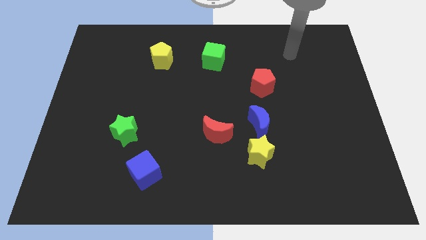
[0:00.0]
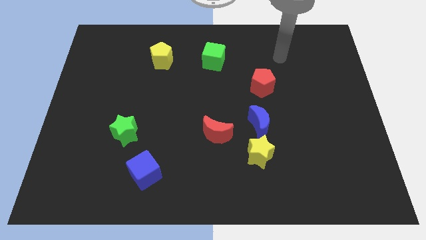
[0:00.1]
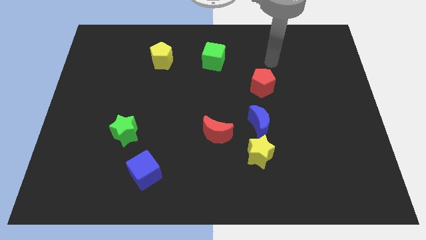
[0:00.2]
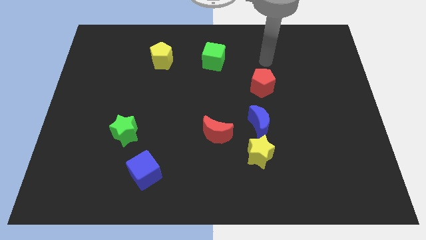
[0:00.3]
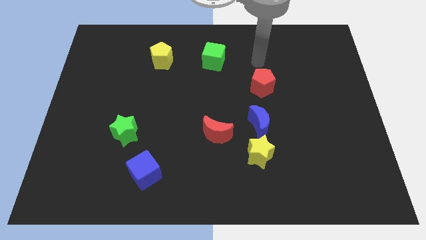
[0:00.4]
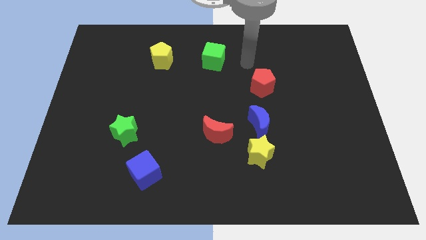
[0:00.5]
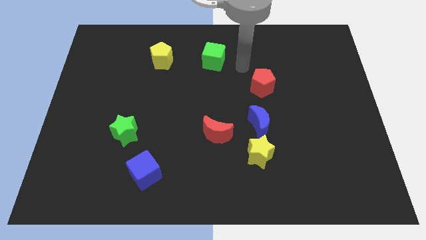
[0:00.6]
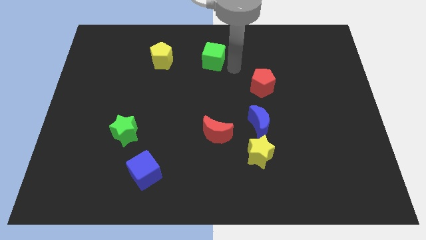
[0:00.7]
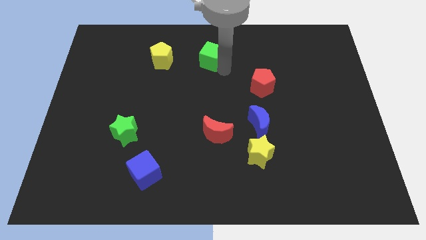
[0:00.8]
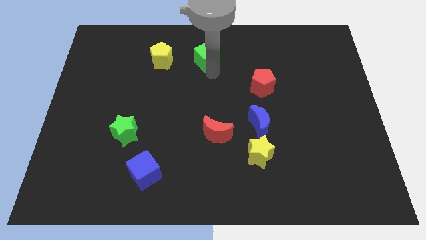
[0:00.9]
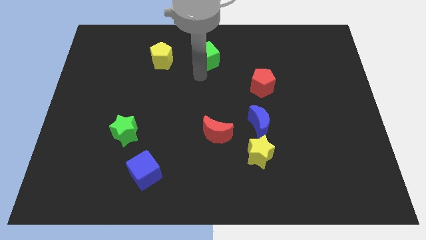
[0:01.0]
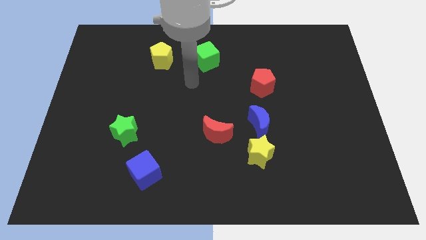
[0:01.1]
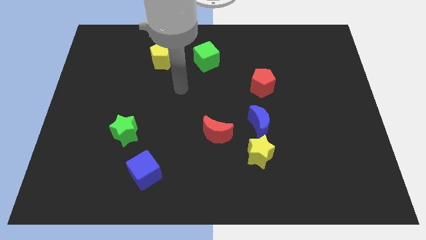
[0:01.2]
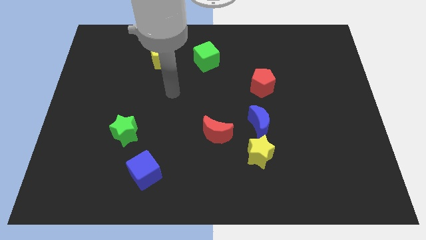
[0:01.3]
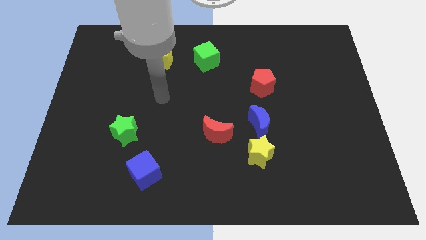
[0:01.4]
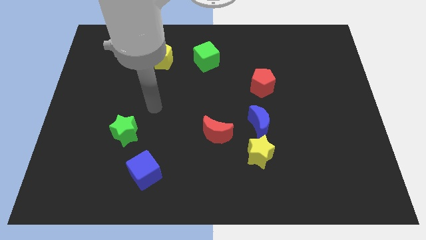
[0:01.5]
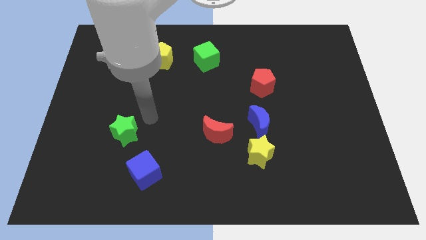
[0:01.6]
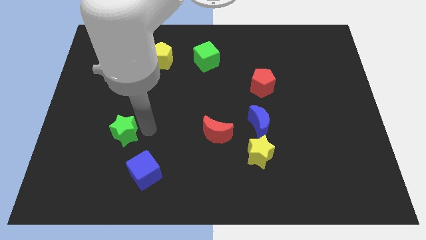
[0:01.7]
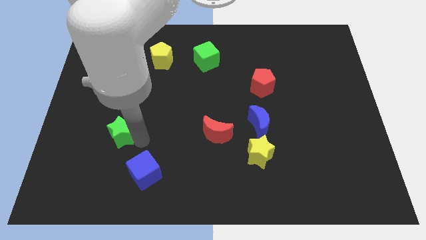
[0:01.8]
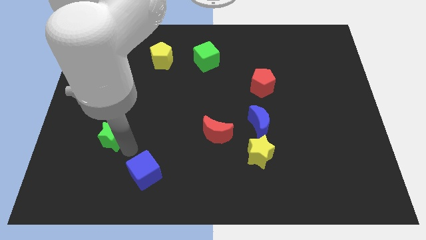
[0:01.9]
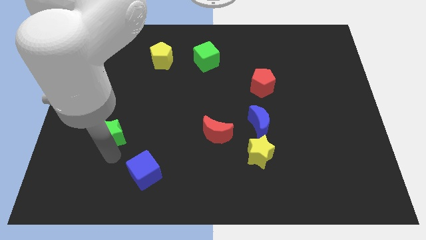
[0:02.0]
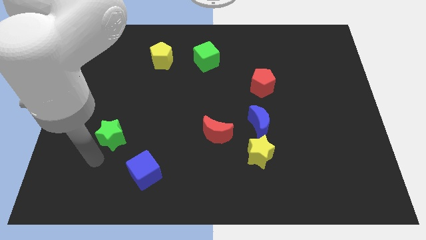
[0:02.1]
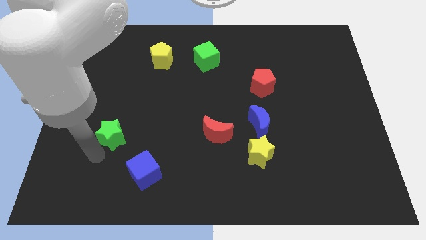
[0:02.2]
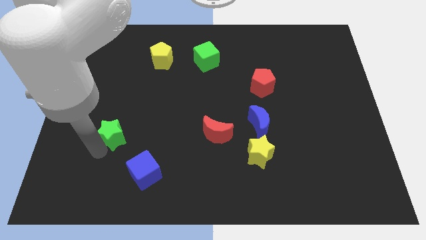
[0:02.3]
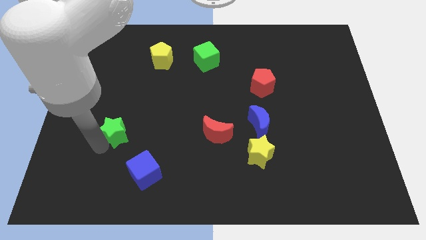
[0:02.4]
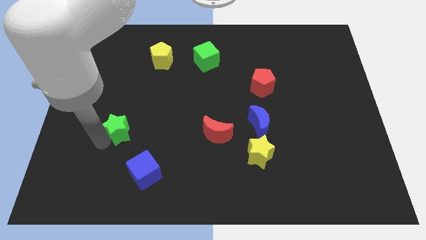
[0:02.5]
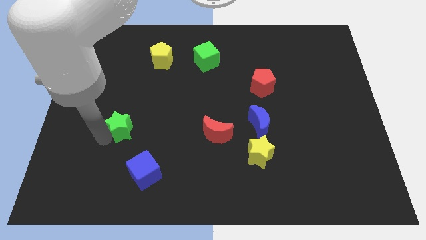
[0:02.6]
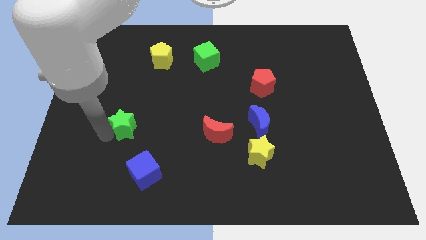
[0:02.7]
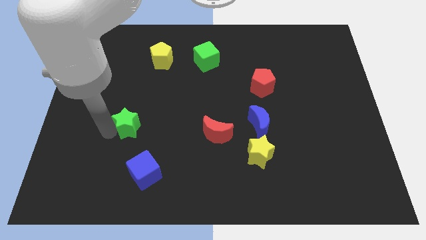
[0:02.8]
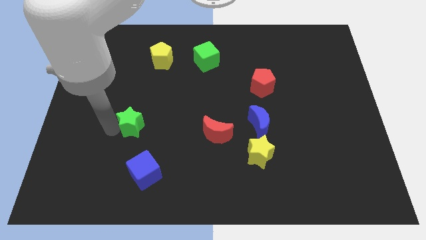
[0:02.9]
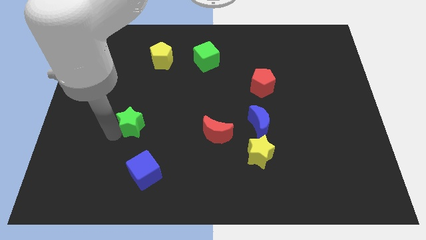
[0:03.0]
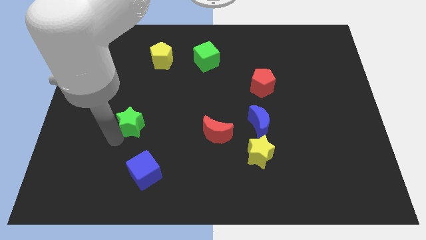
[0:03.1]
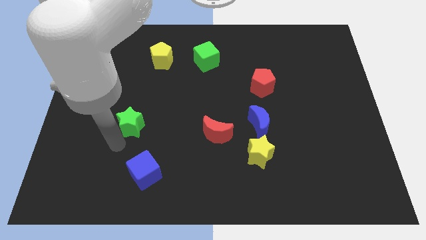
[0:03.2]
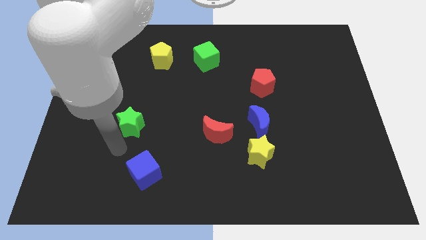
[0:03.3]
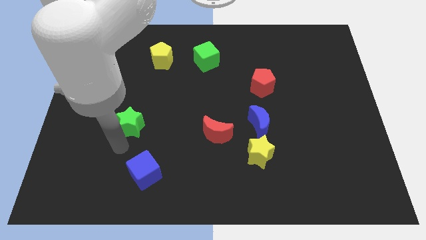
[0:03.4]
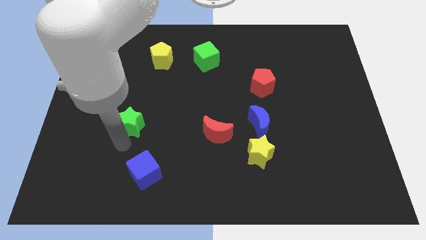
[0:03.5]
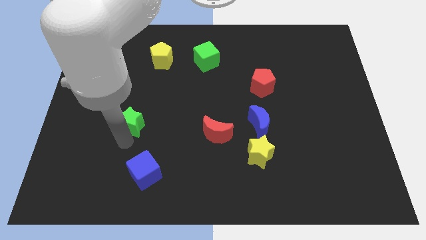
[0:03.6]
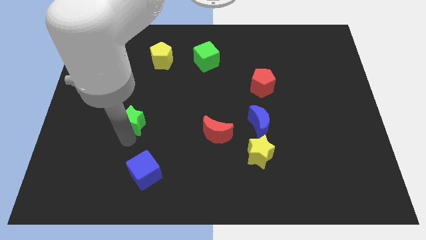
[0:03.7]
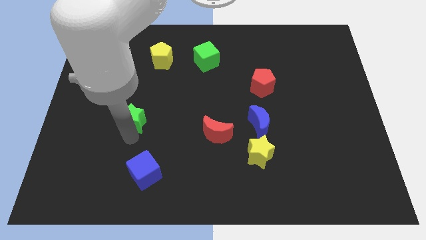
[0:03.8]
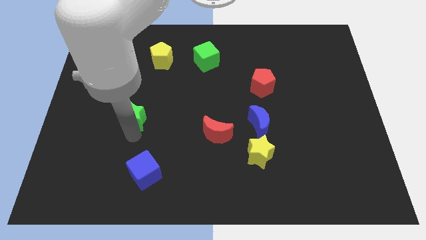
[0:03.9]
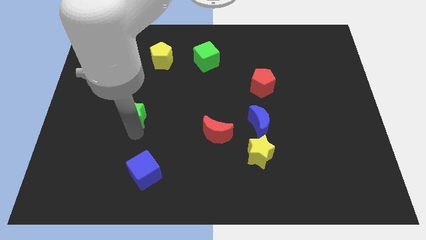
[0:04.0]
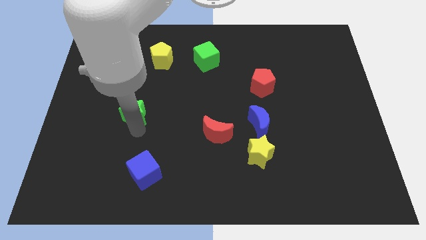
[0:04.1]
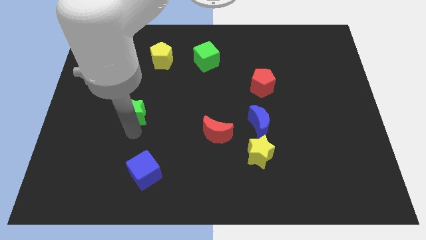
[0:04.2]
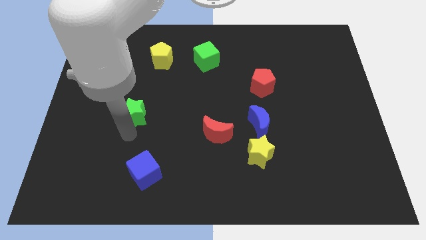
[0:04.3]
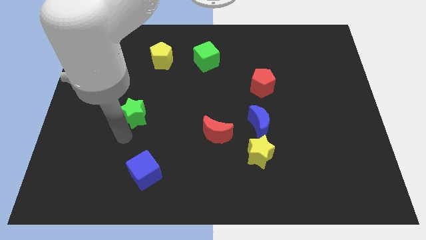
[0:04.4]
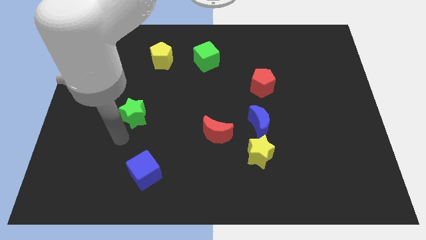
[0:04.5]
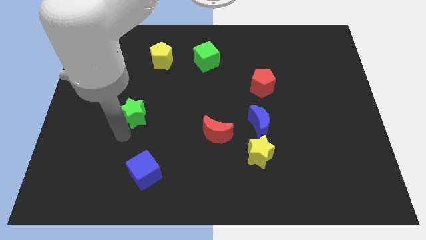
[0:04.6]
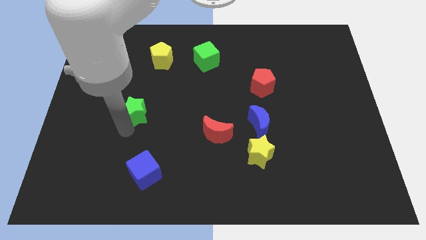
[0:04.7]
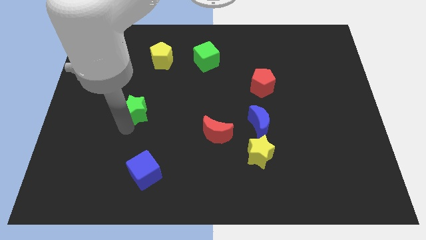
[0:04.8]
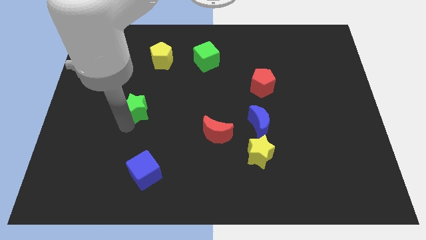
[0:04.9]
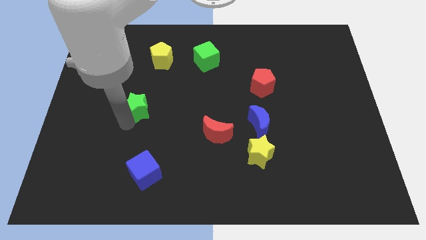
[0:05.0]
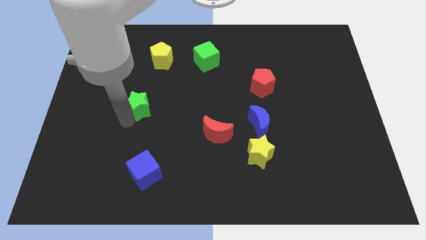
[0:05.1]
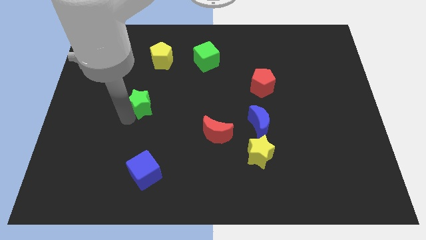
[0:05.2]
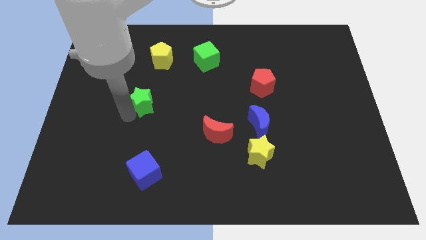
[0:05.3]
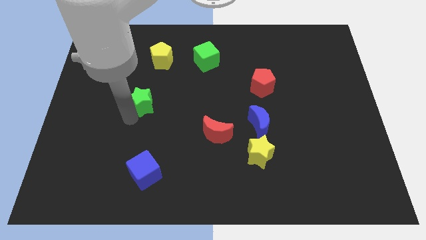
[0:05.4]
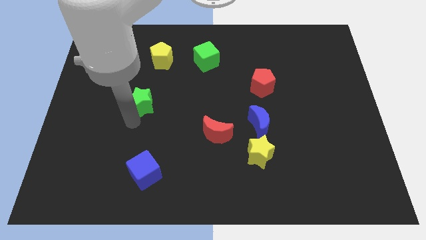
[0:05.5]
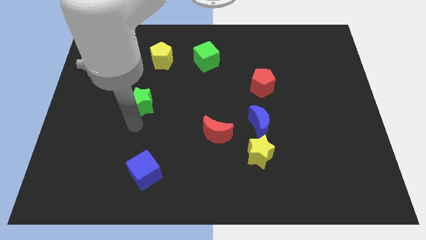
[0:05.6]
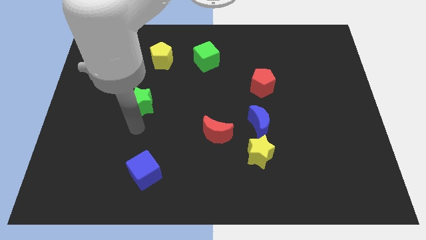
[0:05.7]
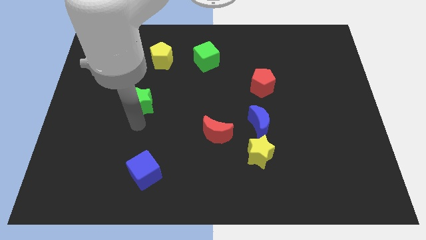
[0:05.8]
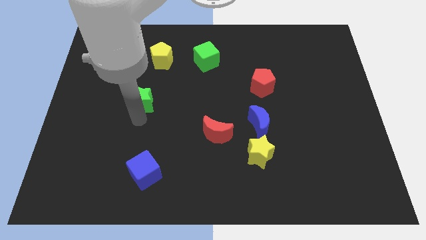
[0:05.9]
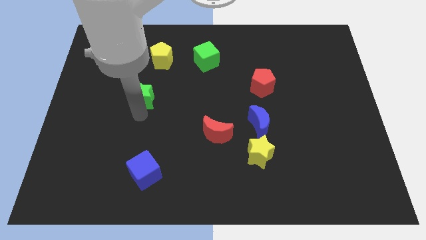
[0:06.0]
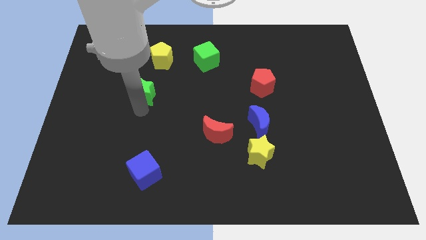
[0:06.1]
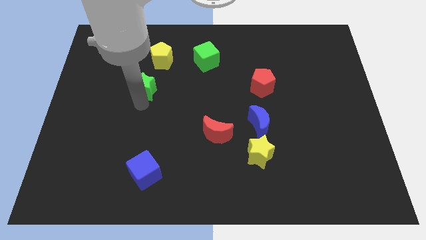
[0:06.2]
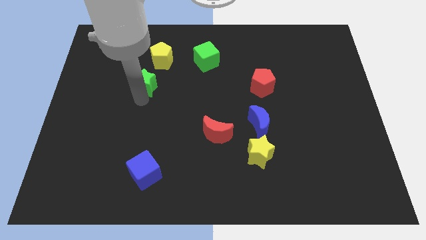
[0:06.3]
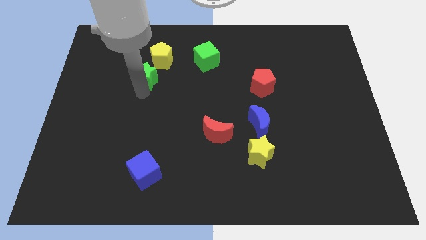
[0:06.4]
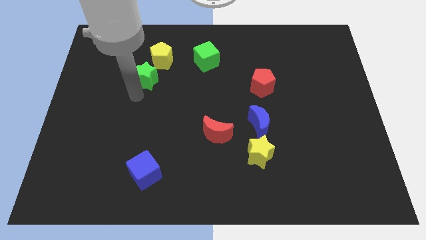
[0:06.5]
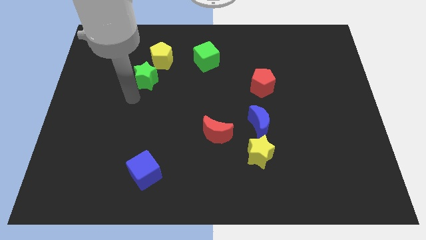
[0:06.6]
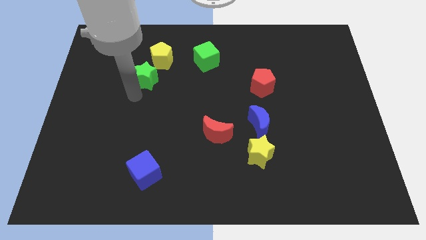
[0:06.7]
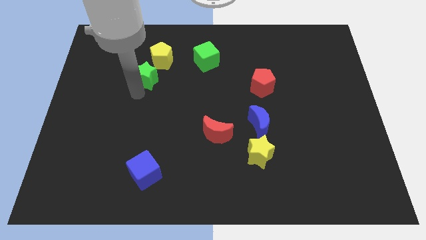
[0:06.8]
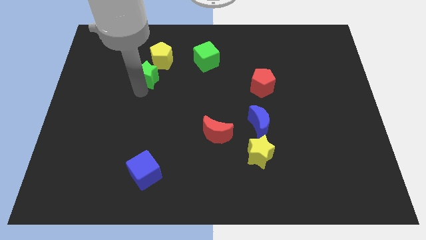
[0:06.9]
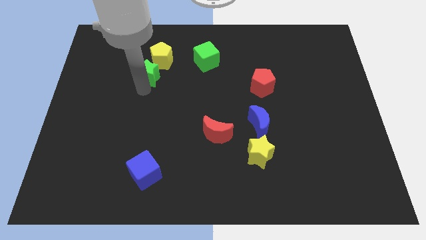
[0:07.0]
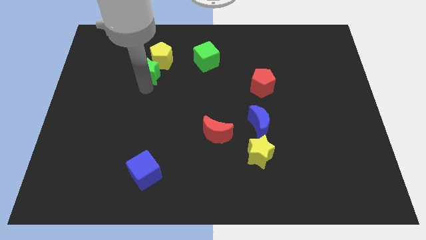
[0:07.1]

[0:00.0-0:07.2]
slide the green star close to the yellow pentagon

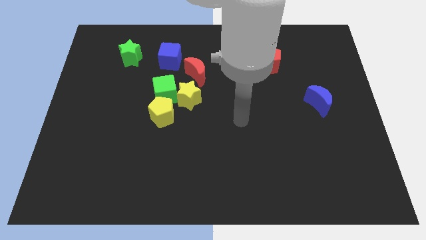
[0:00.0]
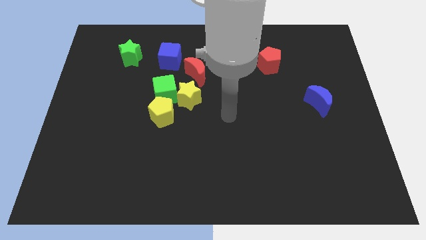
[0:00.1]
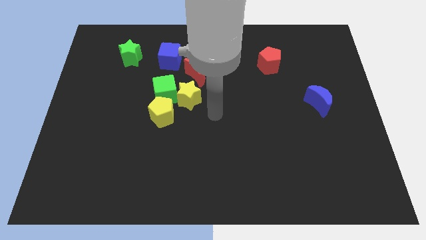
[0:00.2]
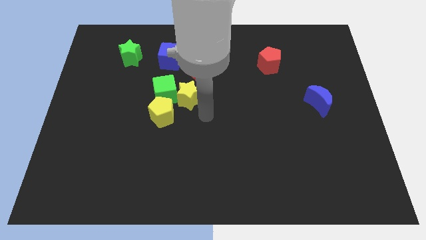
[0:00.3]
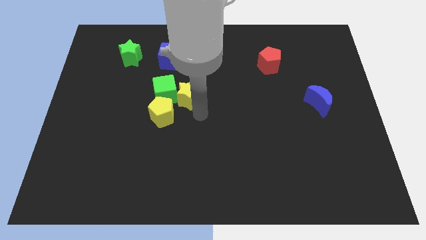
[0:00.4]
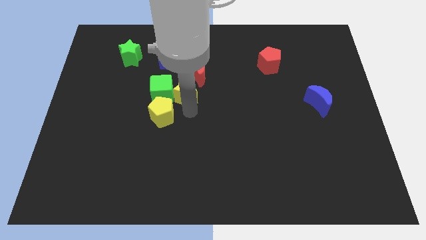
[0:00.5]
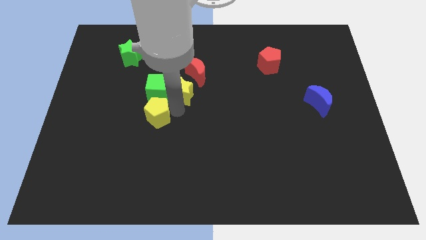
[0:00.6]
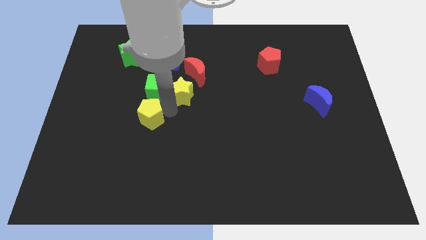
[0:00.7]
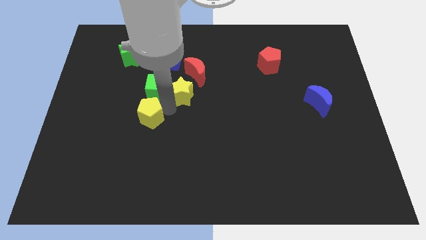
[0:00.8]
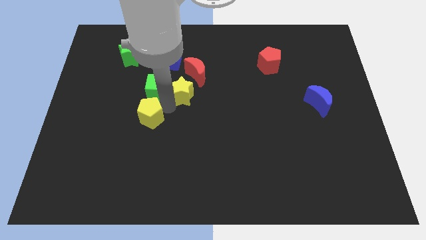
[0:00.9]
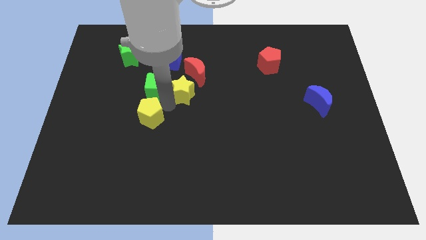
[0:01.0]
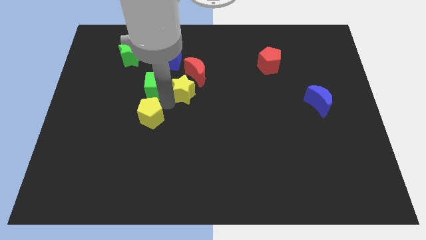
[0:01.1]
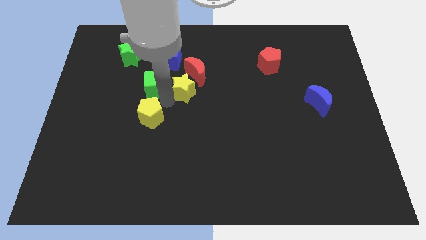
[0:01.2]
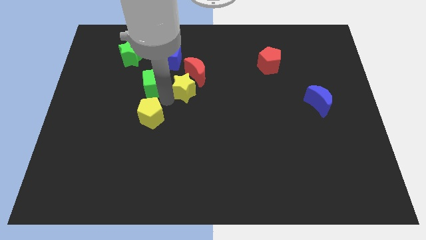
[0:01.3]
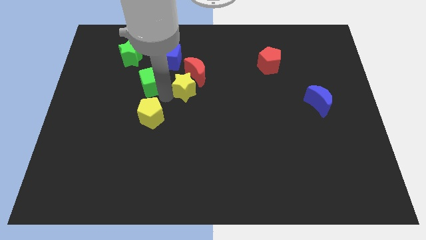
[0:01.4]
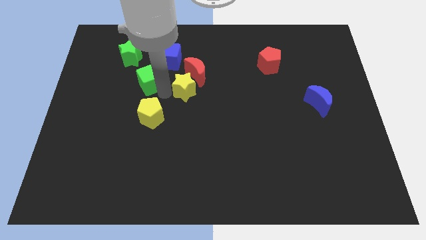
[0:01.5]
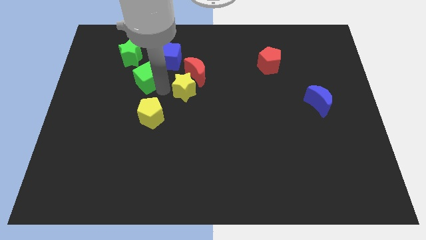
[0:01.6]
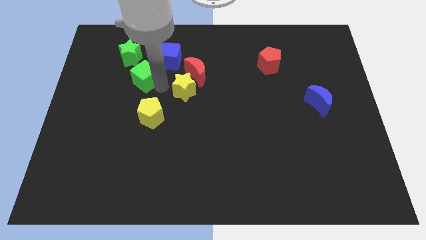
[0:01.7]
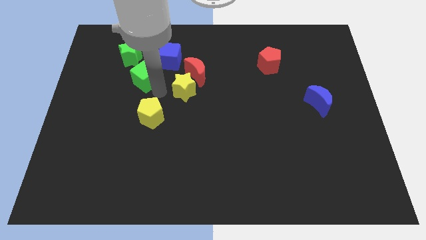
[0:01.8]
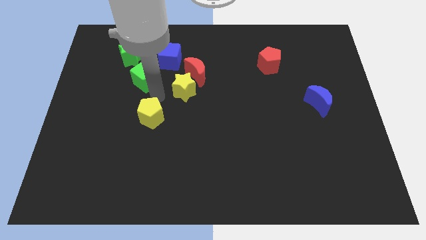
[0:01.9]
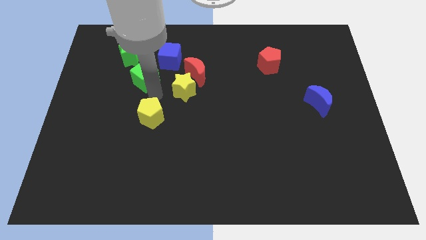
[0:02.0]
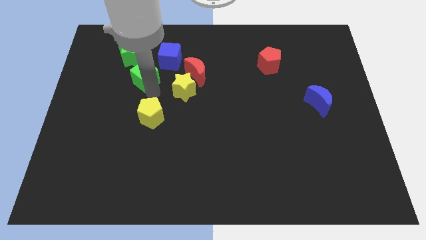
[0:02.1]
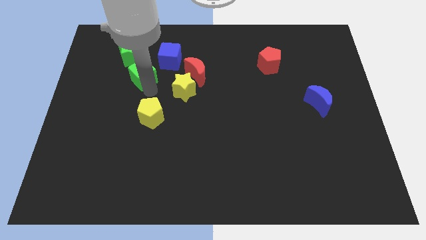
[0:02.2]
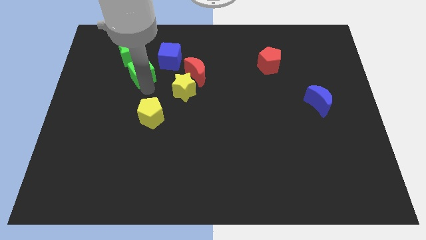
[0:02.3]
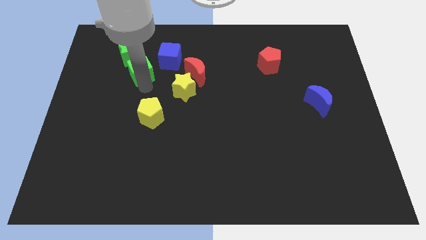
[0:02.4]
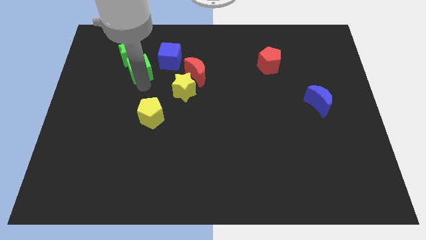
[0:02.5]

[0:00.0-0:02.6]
move the green cube next to the green star
